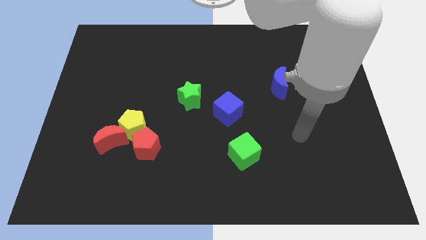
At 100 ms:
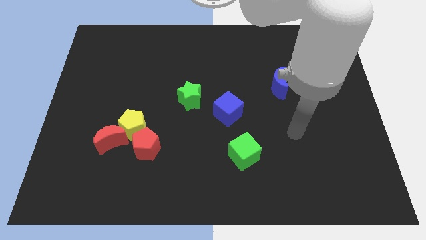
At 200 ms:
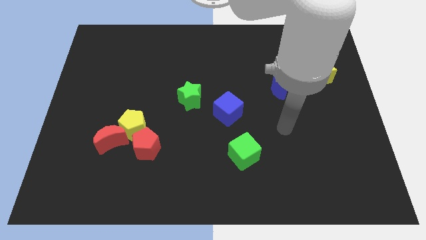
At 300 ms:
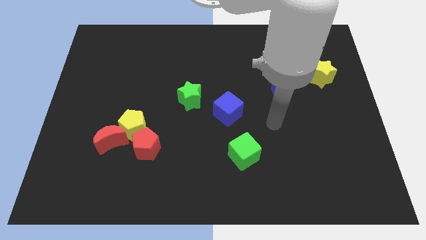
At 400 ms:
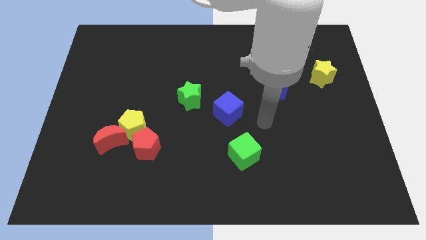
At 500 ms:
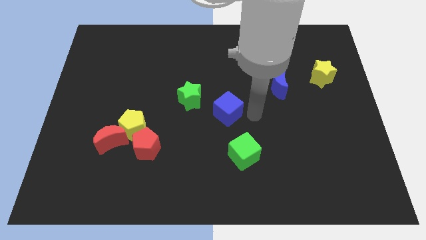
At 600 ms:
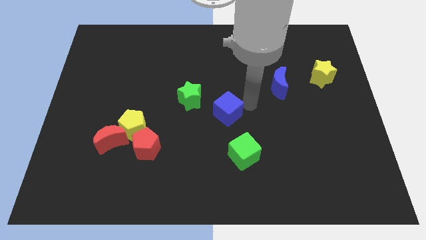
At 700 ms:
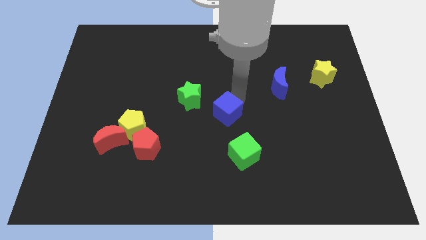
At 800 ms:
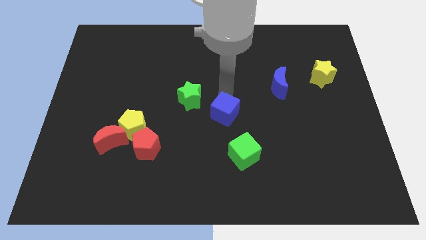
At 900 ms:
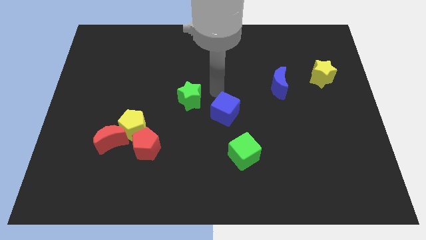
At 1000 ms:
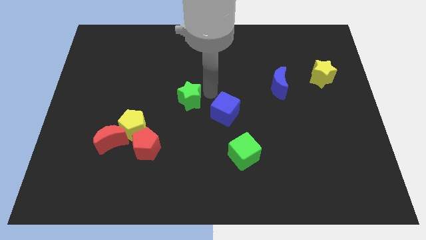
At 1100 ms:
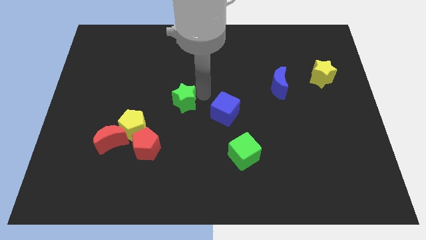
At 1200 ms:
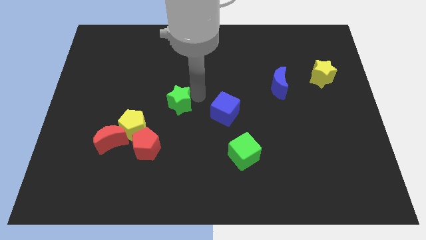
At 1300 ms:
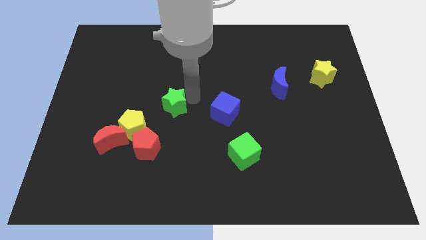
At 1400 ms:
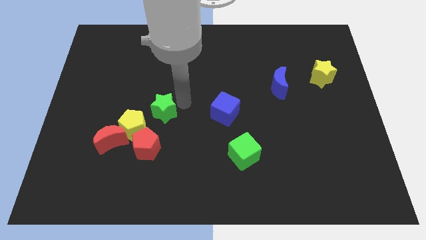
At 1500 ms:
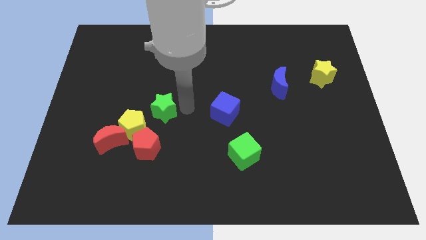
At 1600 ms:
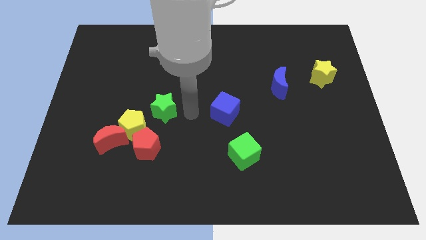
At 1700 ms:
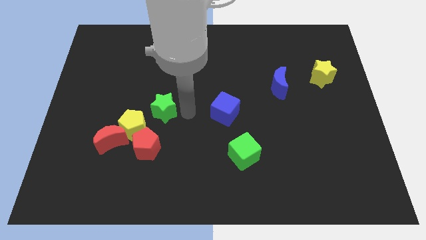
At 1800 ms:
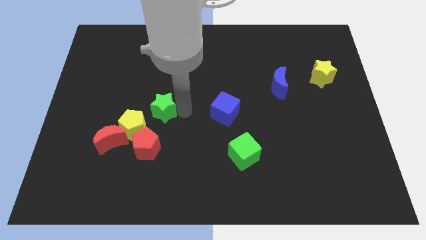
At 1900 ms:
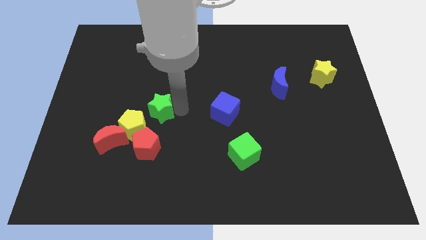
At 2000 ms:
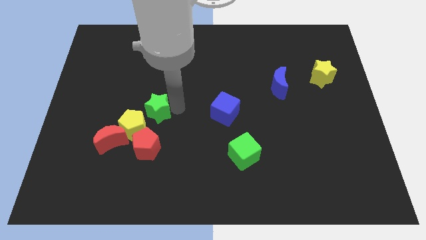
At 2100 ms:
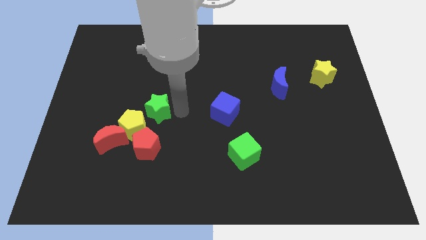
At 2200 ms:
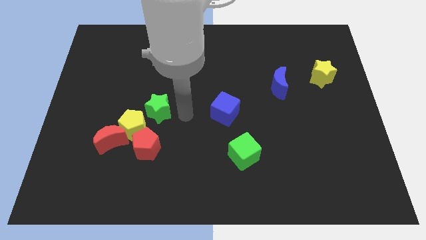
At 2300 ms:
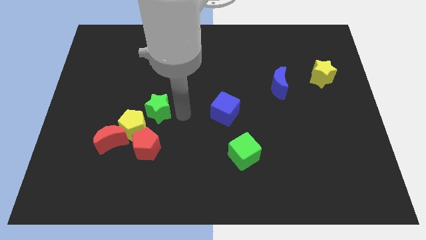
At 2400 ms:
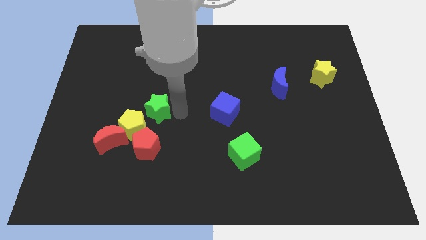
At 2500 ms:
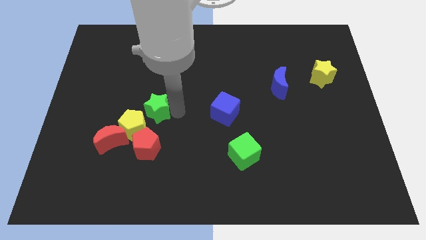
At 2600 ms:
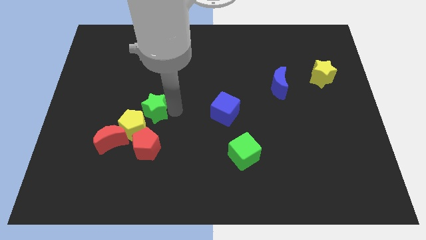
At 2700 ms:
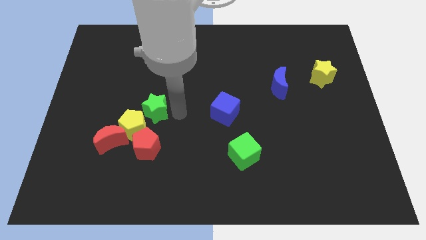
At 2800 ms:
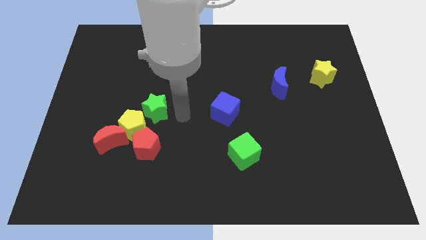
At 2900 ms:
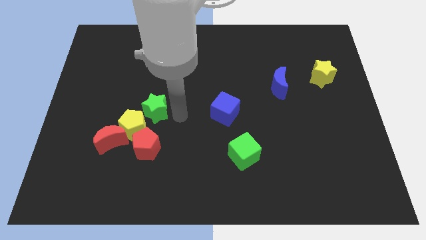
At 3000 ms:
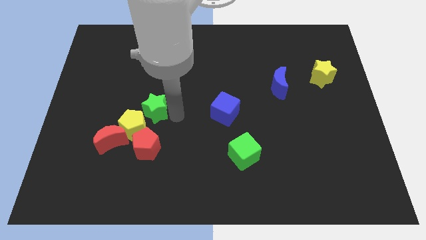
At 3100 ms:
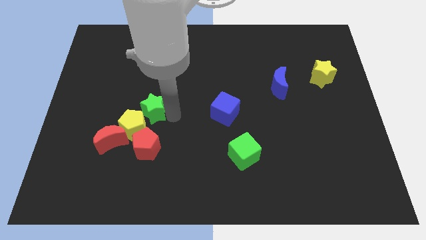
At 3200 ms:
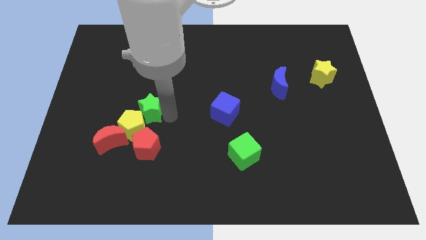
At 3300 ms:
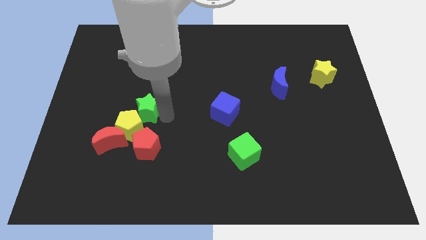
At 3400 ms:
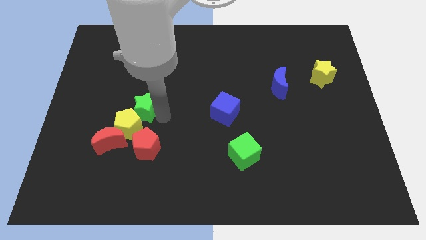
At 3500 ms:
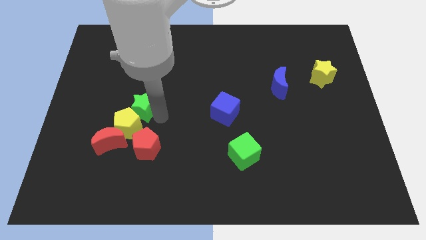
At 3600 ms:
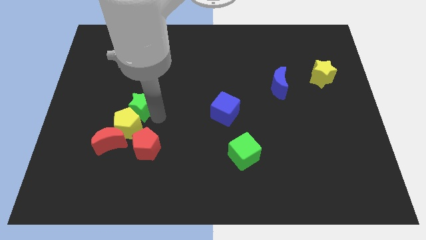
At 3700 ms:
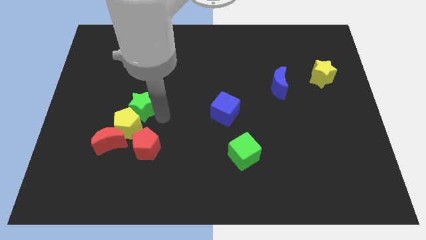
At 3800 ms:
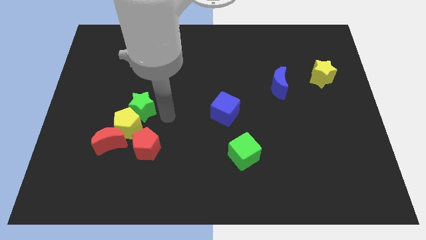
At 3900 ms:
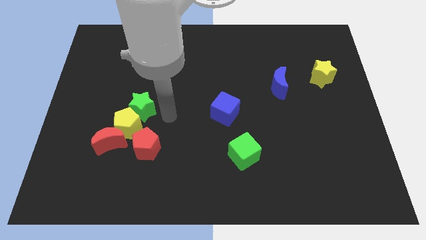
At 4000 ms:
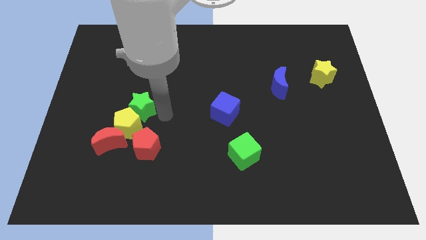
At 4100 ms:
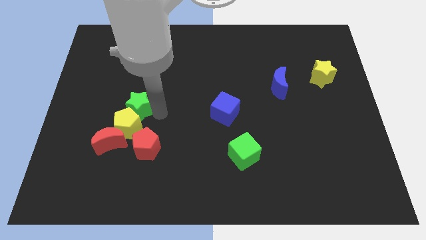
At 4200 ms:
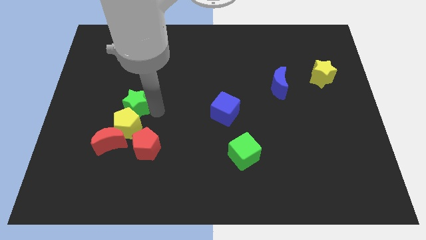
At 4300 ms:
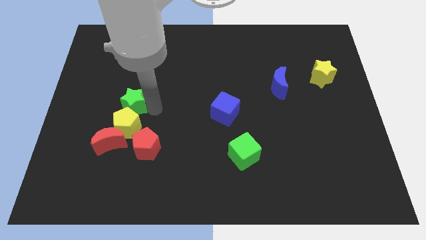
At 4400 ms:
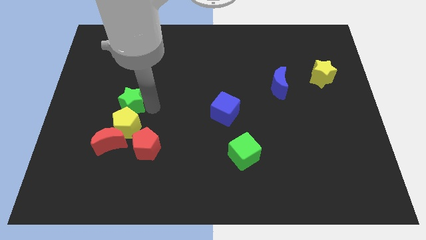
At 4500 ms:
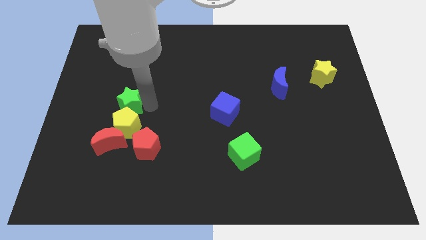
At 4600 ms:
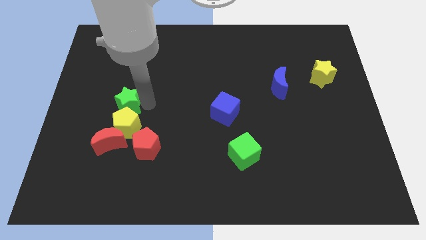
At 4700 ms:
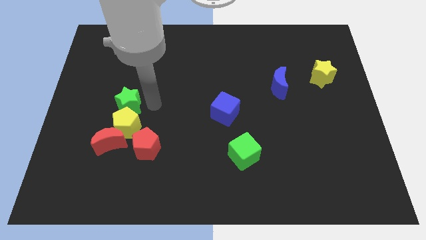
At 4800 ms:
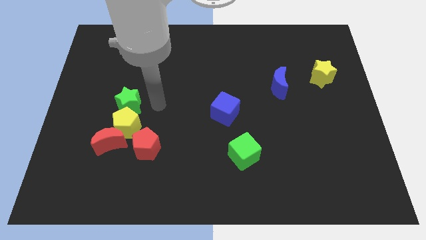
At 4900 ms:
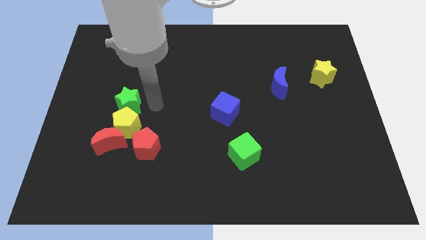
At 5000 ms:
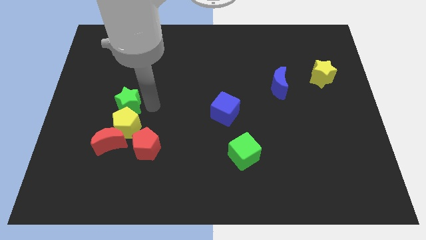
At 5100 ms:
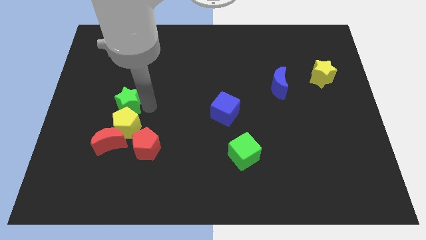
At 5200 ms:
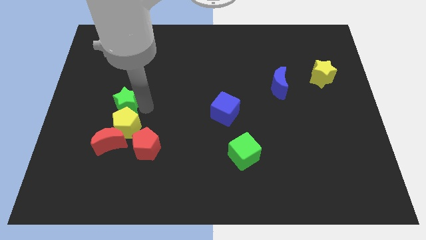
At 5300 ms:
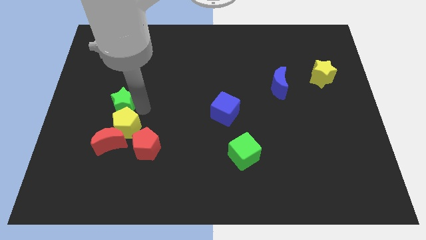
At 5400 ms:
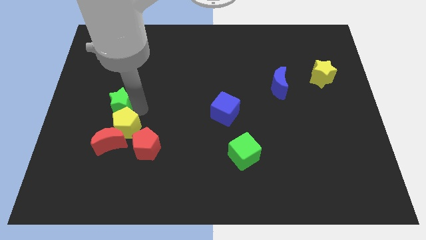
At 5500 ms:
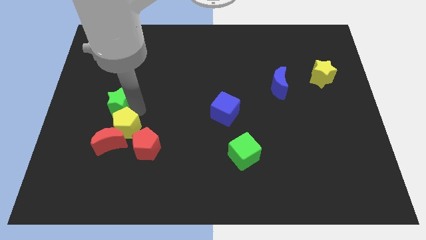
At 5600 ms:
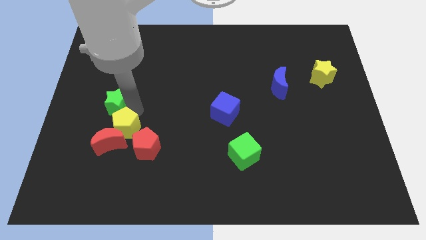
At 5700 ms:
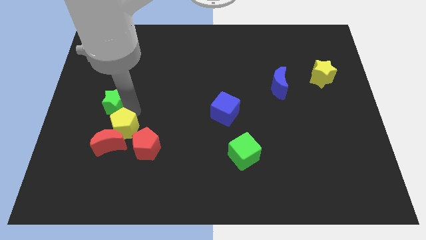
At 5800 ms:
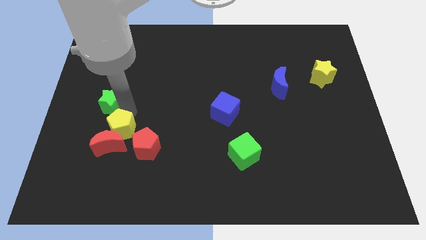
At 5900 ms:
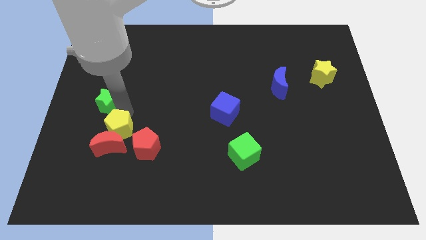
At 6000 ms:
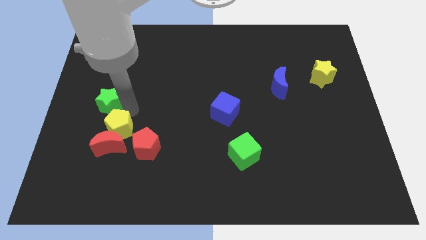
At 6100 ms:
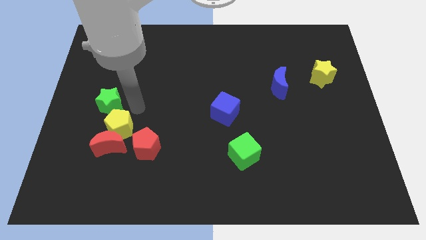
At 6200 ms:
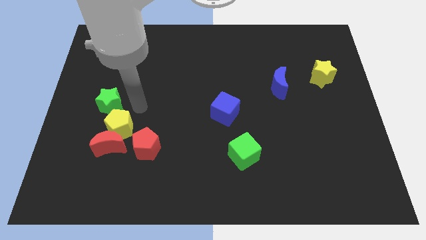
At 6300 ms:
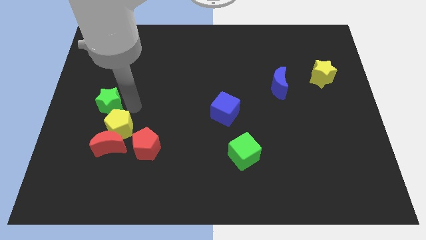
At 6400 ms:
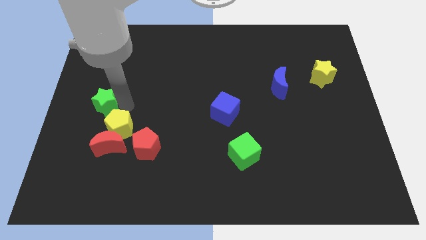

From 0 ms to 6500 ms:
push the green star to the left side
